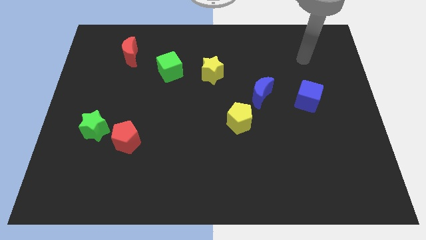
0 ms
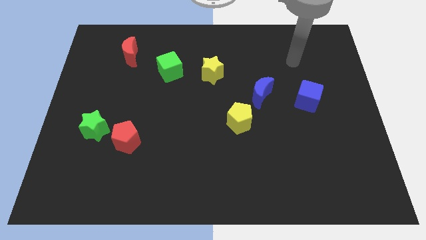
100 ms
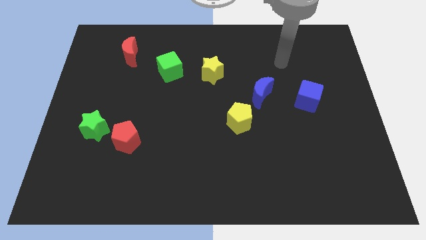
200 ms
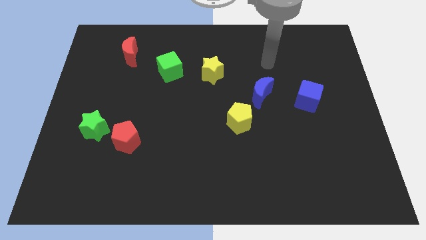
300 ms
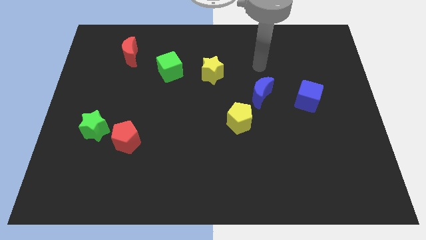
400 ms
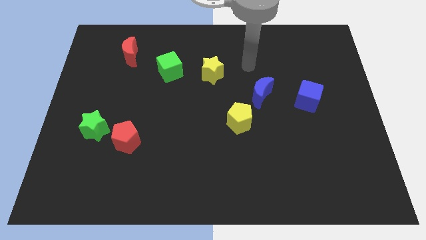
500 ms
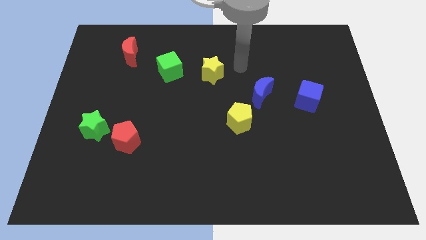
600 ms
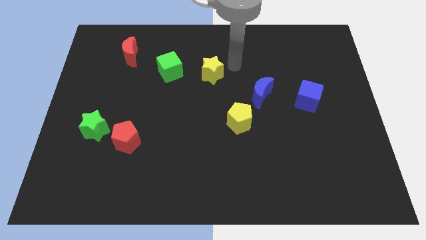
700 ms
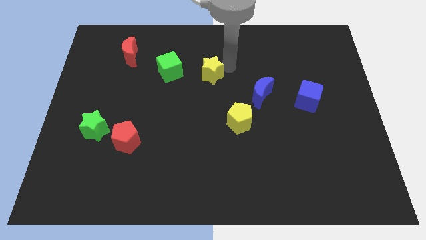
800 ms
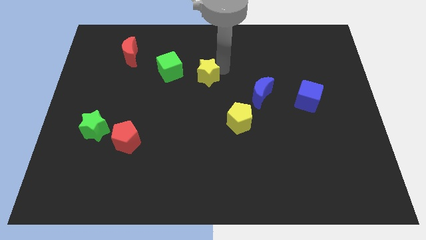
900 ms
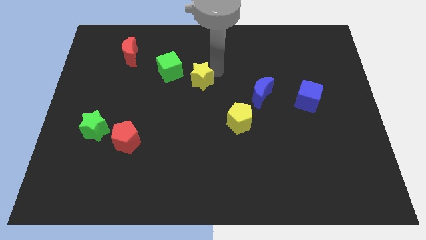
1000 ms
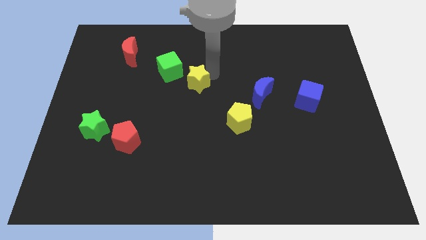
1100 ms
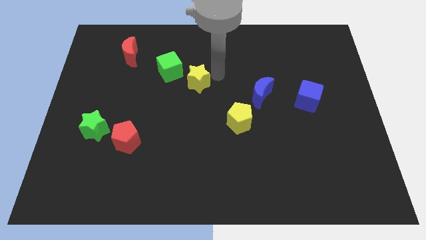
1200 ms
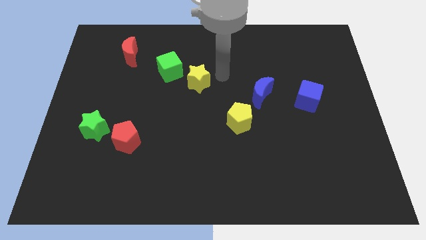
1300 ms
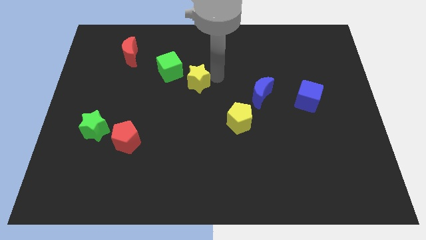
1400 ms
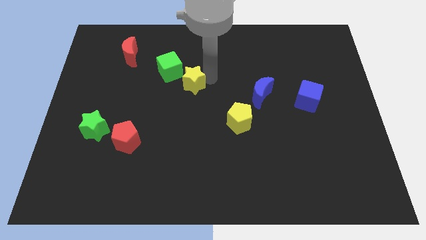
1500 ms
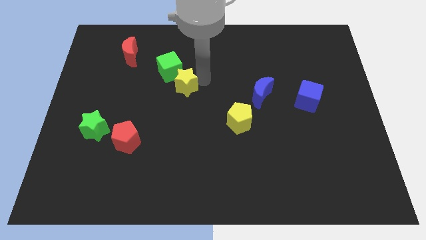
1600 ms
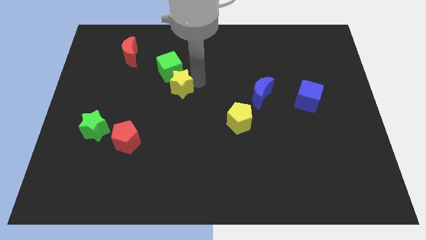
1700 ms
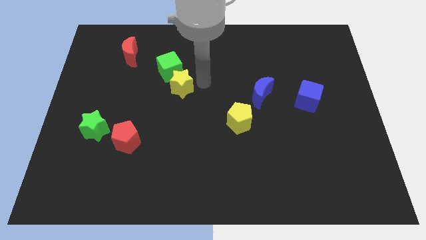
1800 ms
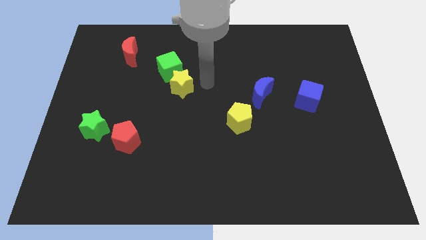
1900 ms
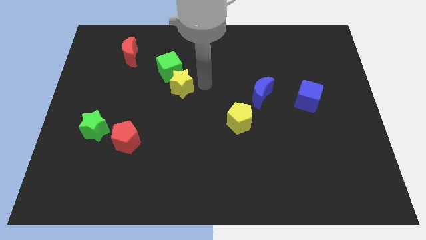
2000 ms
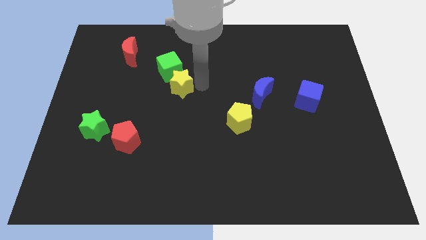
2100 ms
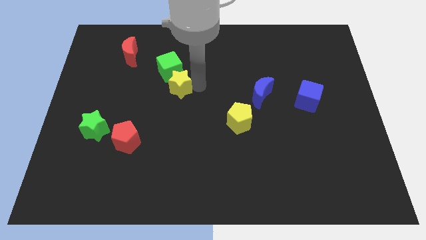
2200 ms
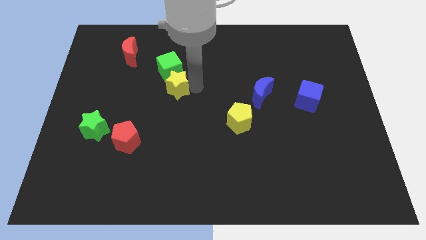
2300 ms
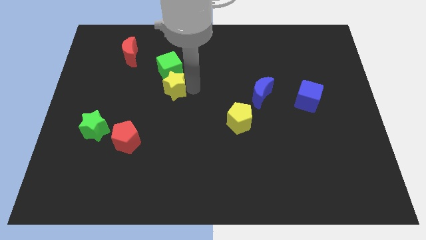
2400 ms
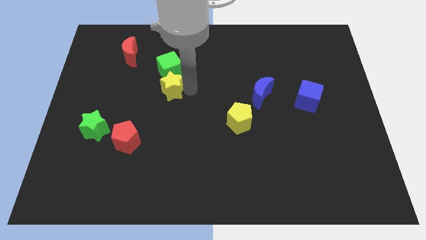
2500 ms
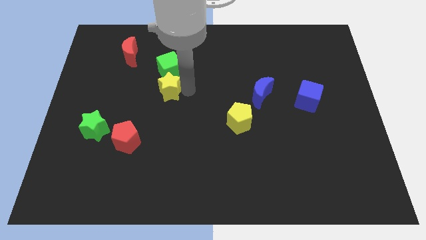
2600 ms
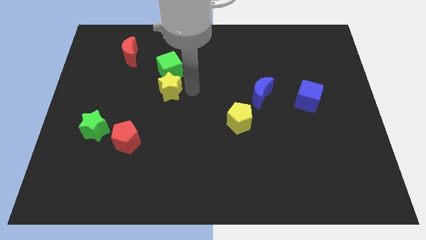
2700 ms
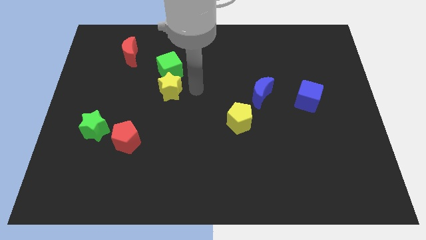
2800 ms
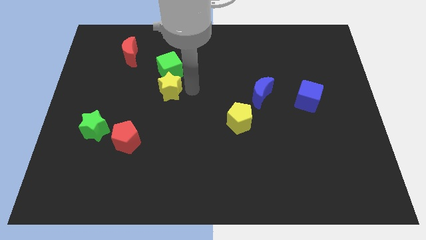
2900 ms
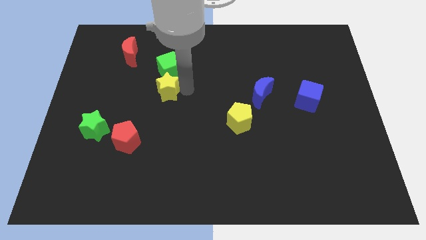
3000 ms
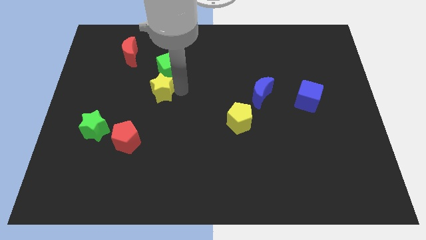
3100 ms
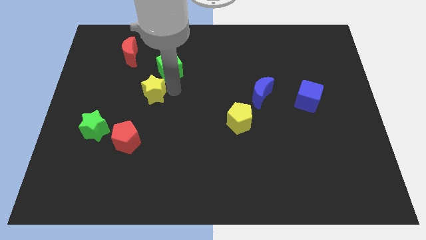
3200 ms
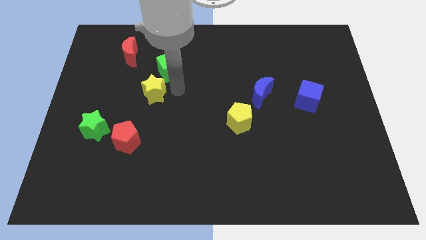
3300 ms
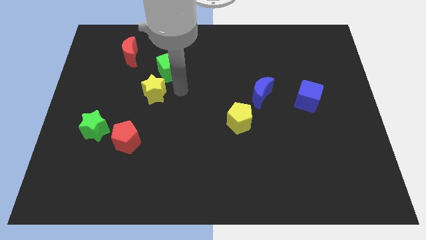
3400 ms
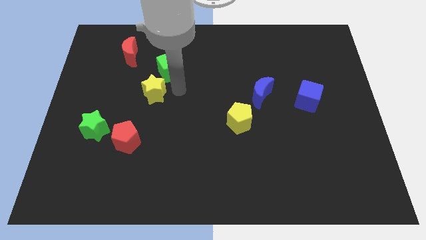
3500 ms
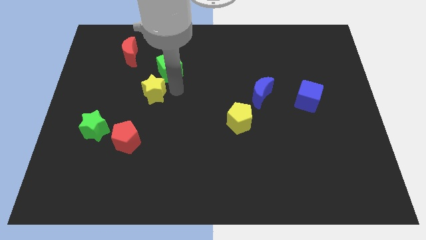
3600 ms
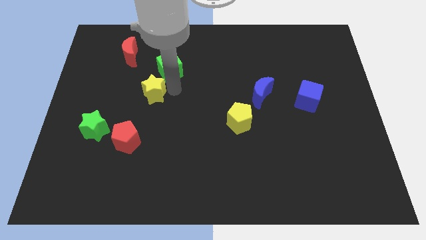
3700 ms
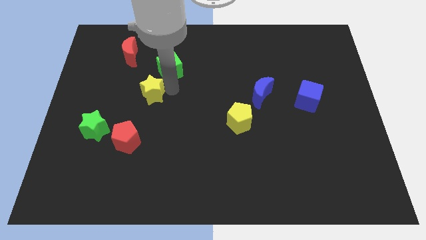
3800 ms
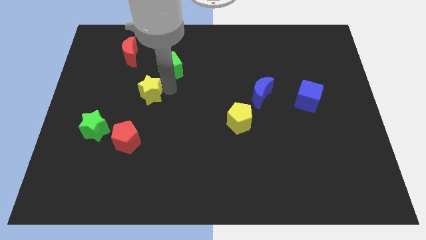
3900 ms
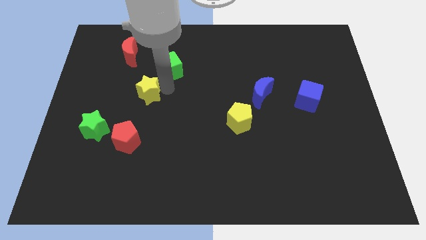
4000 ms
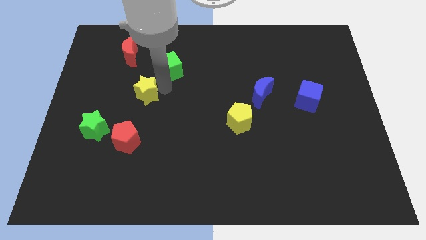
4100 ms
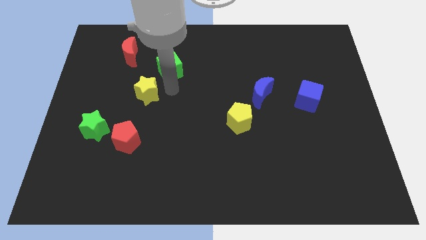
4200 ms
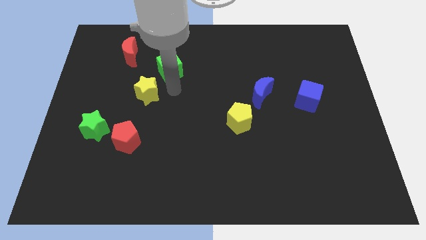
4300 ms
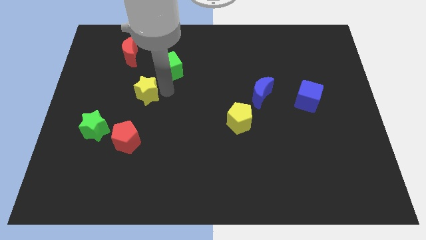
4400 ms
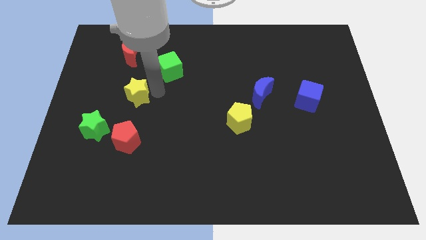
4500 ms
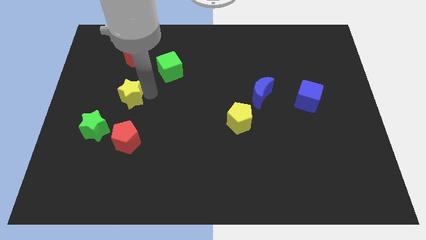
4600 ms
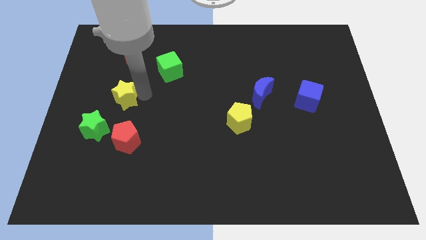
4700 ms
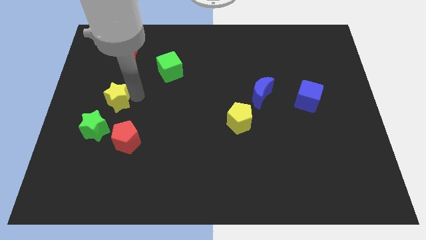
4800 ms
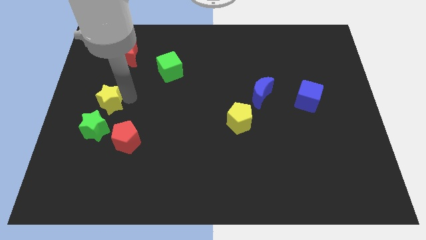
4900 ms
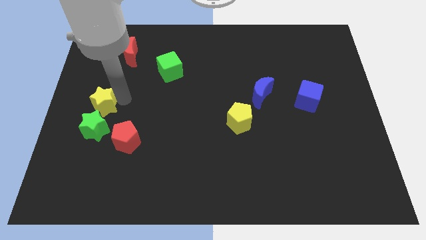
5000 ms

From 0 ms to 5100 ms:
push the yellow star to the left side

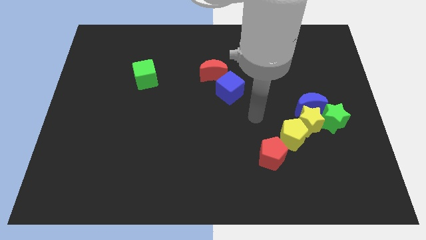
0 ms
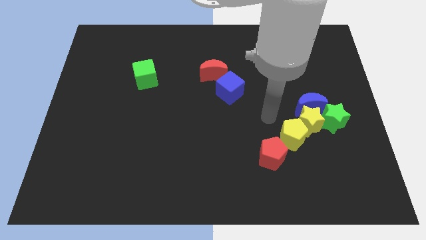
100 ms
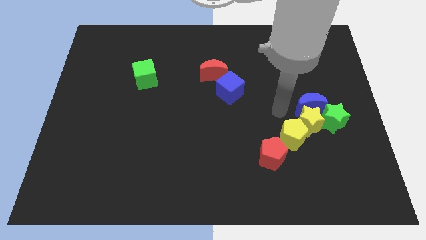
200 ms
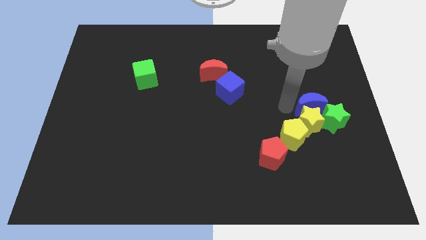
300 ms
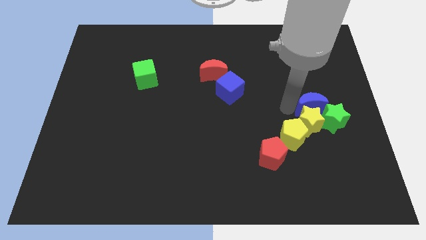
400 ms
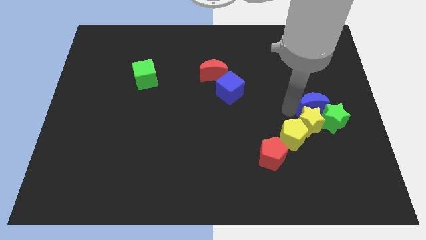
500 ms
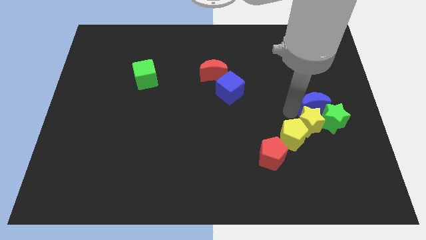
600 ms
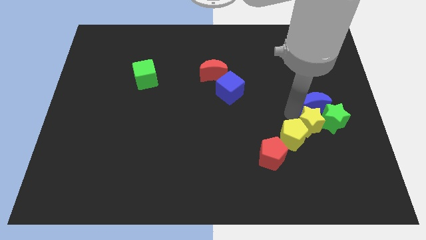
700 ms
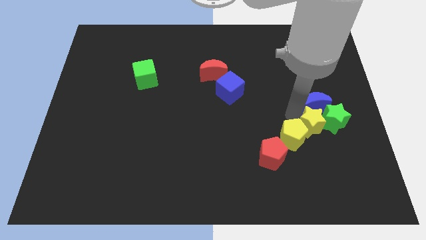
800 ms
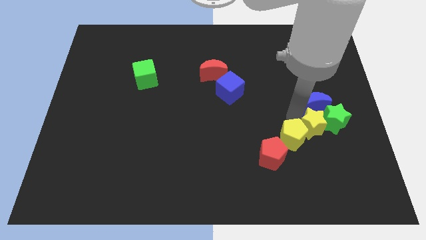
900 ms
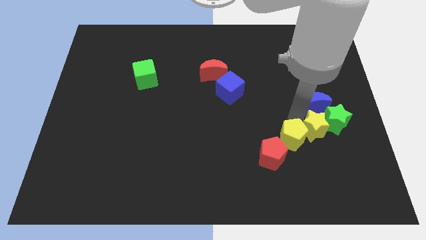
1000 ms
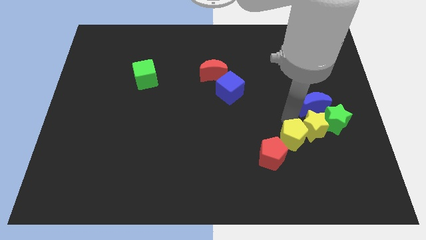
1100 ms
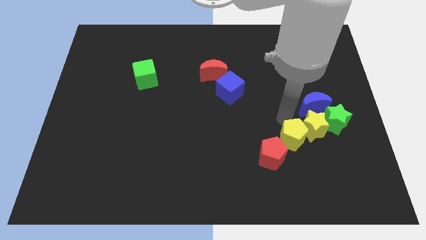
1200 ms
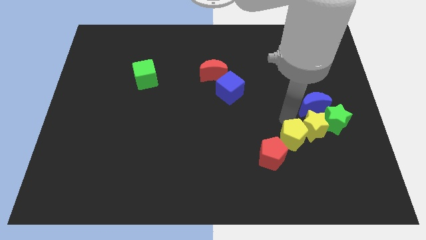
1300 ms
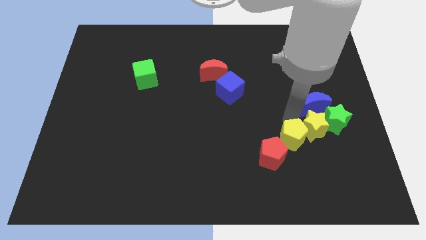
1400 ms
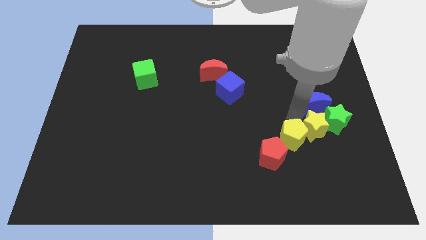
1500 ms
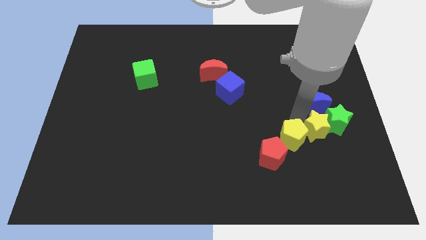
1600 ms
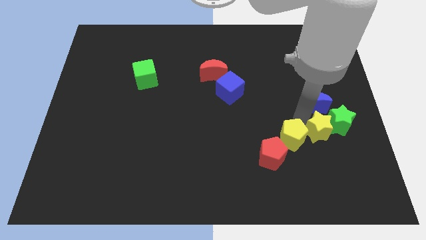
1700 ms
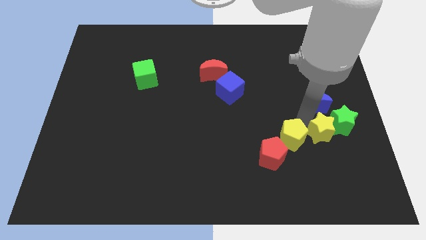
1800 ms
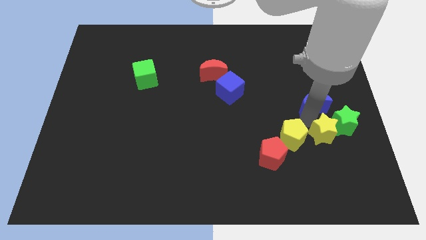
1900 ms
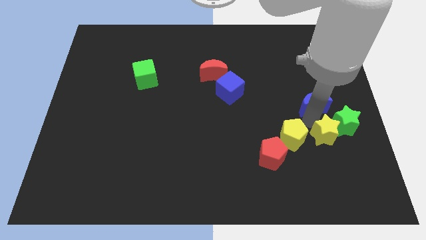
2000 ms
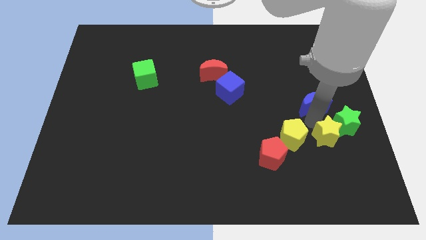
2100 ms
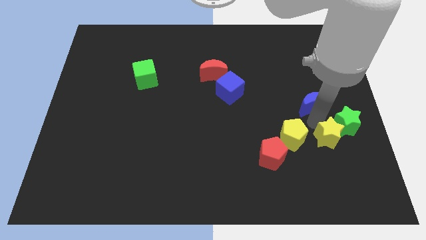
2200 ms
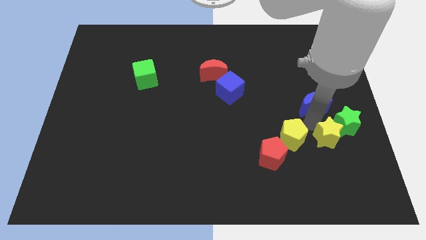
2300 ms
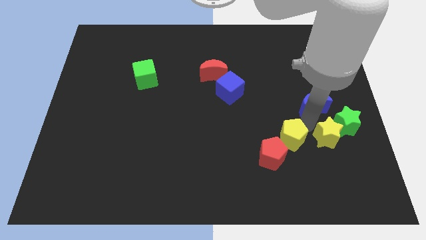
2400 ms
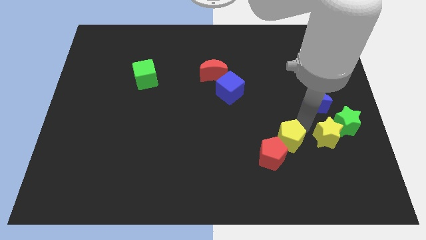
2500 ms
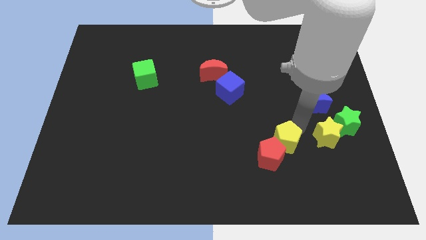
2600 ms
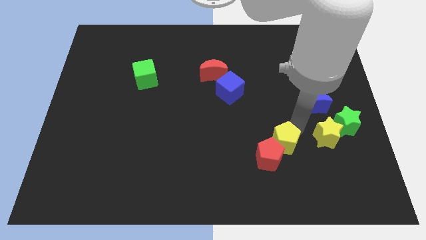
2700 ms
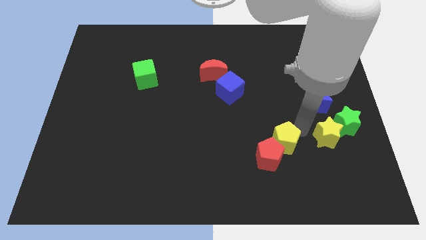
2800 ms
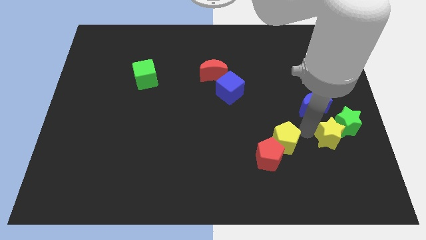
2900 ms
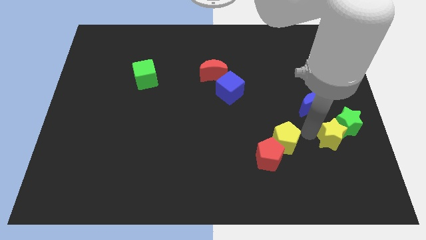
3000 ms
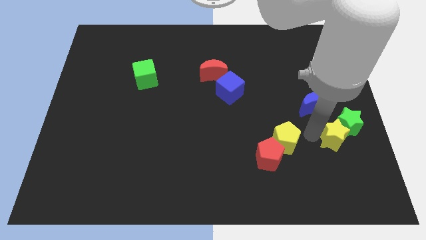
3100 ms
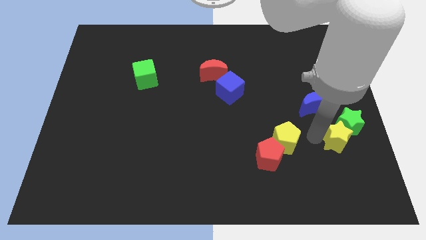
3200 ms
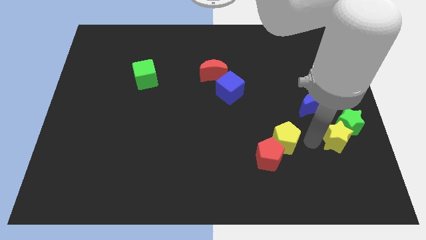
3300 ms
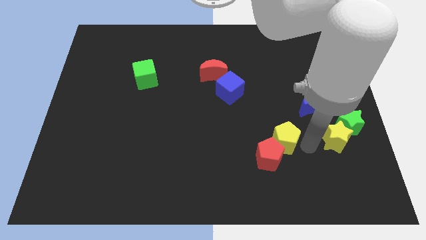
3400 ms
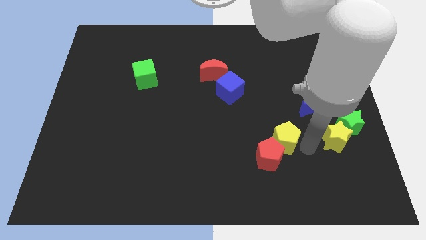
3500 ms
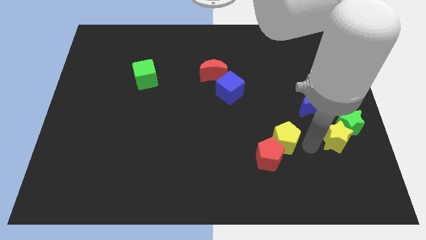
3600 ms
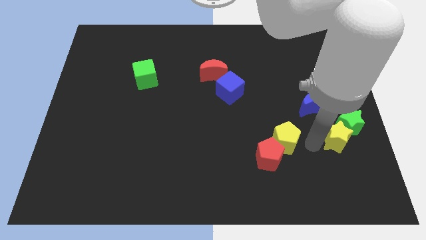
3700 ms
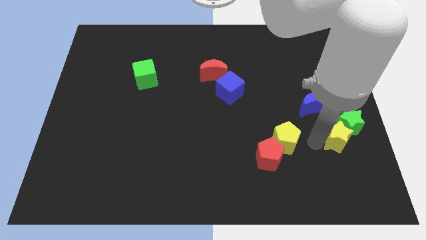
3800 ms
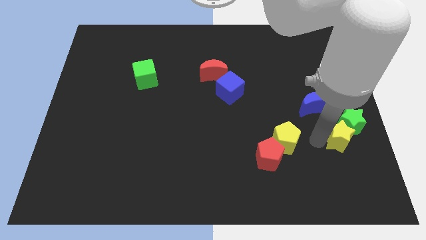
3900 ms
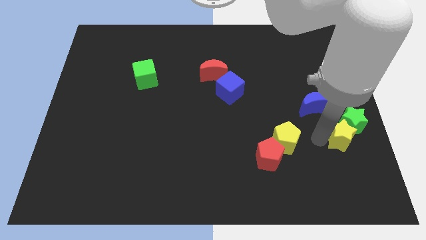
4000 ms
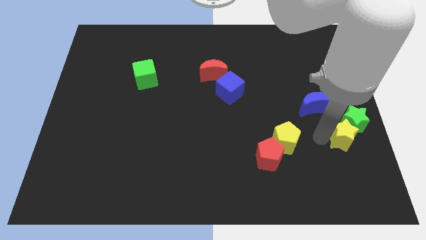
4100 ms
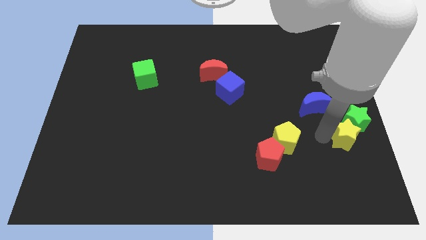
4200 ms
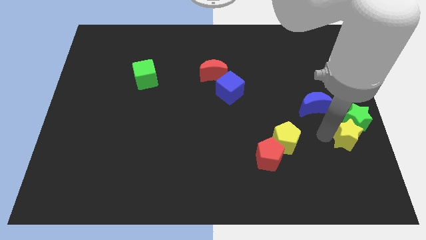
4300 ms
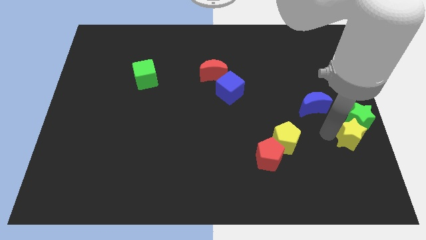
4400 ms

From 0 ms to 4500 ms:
move the yellow star to the right side
